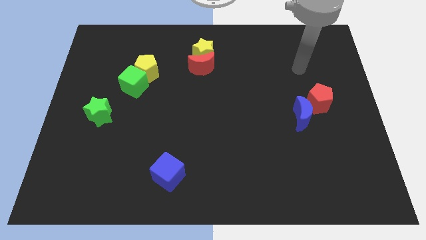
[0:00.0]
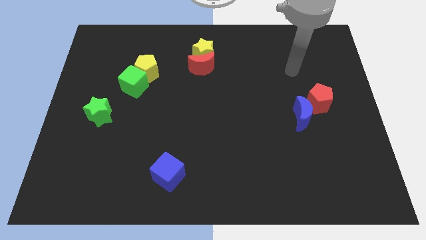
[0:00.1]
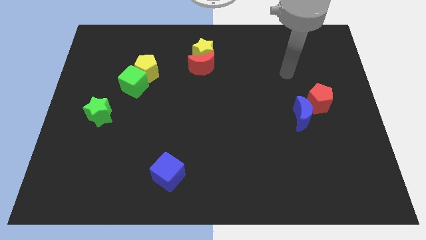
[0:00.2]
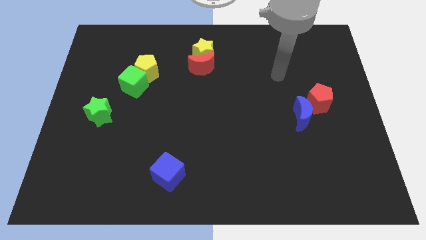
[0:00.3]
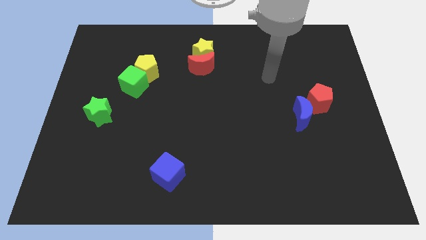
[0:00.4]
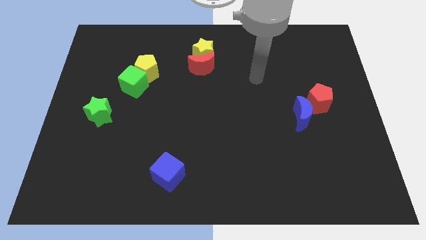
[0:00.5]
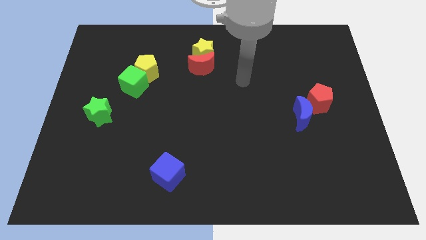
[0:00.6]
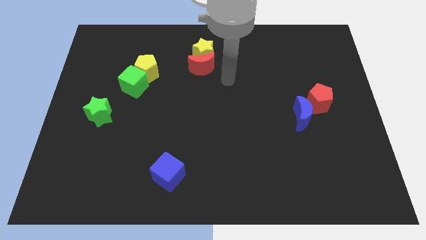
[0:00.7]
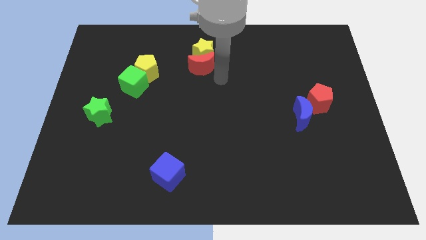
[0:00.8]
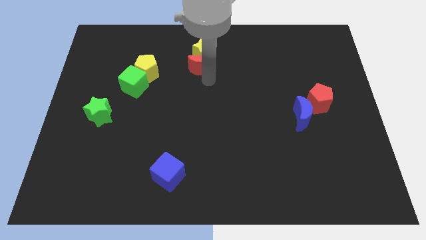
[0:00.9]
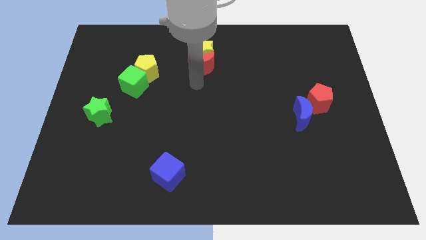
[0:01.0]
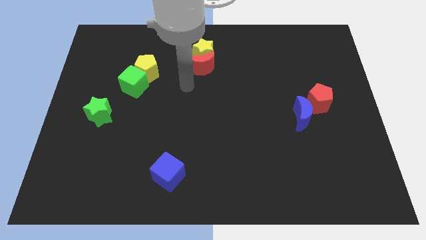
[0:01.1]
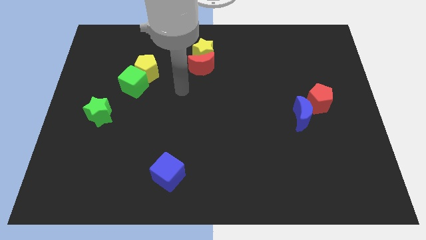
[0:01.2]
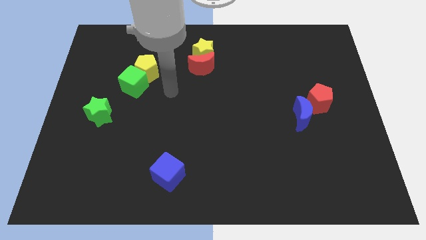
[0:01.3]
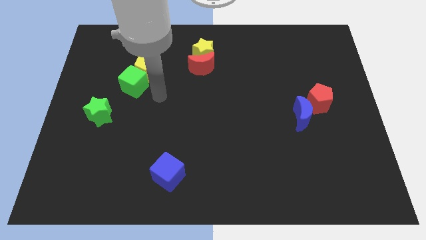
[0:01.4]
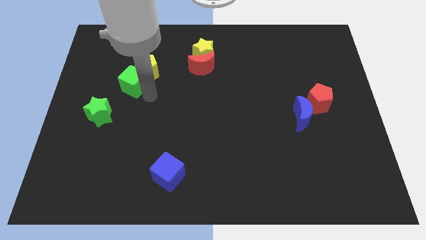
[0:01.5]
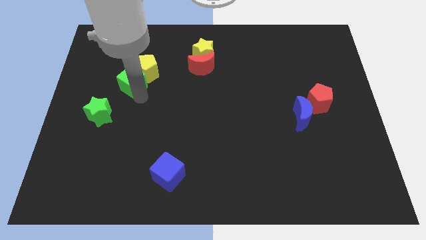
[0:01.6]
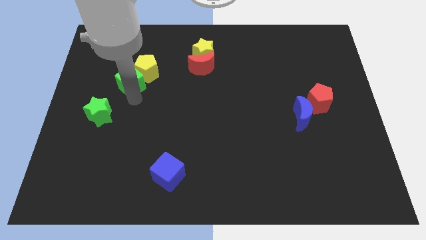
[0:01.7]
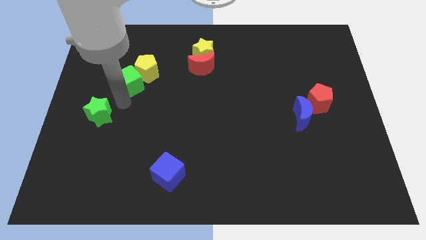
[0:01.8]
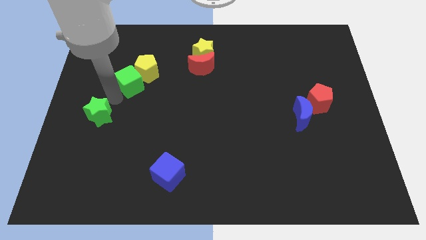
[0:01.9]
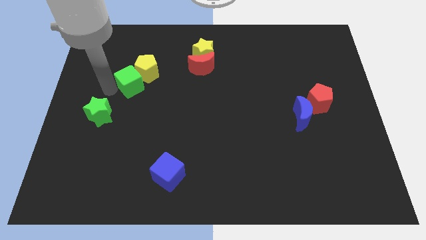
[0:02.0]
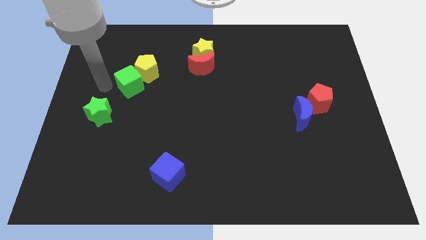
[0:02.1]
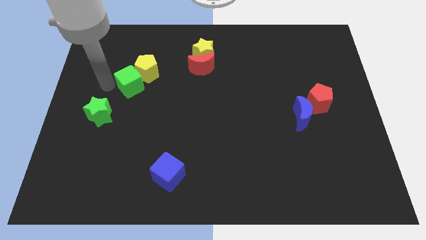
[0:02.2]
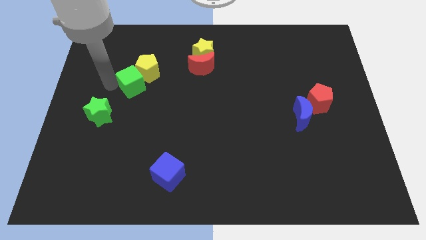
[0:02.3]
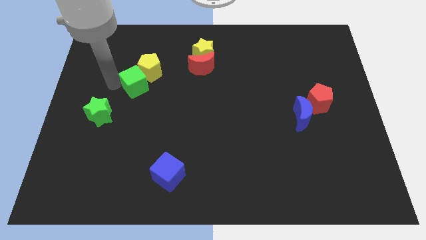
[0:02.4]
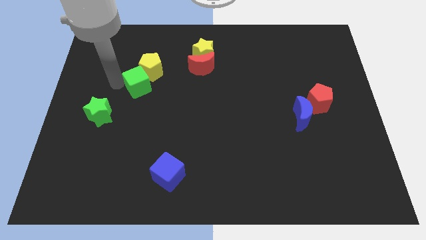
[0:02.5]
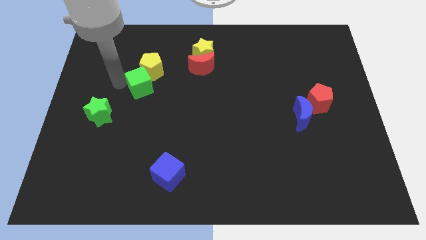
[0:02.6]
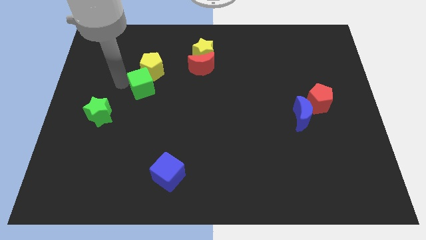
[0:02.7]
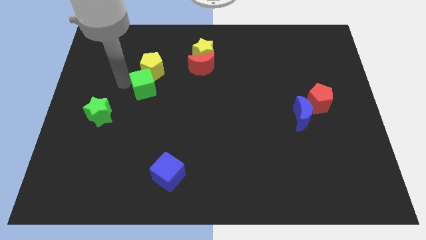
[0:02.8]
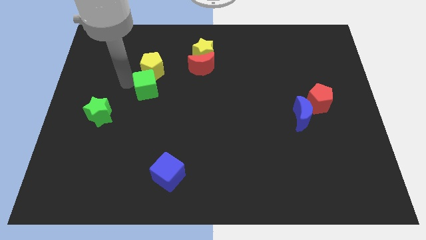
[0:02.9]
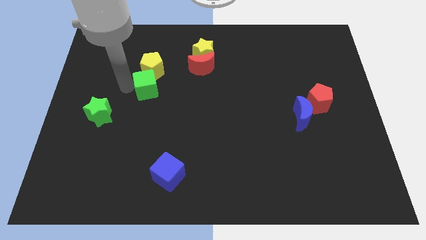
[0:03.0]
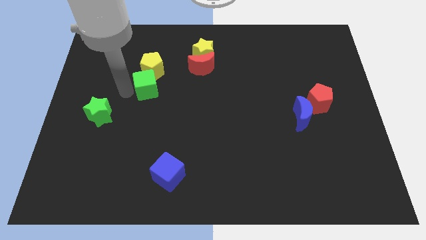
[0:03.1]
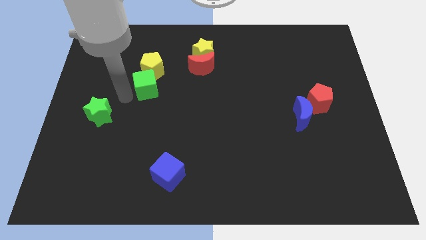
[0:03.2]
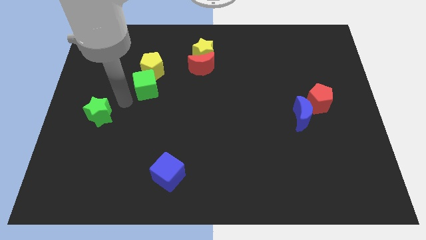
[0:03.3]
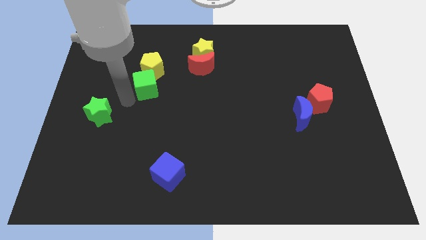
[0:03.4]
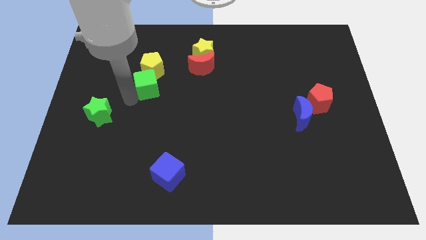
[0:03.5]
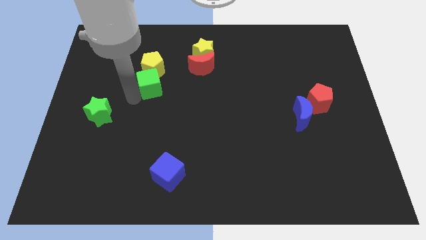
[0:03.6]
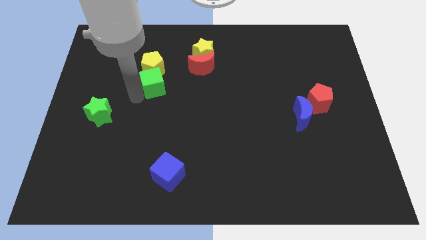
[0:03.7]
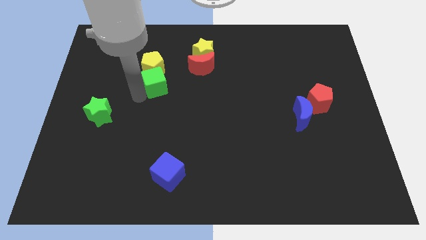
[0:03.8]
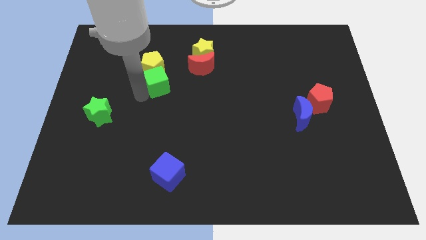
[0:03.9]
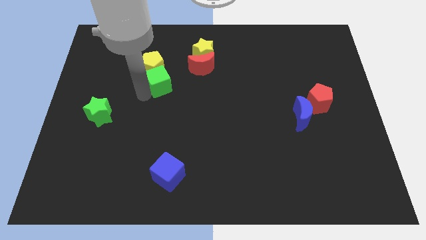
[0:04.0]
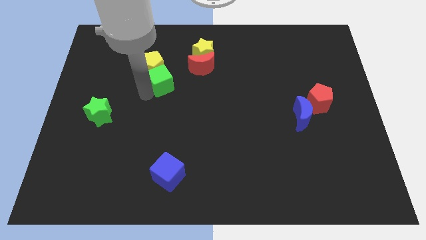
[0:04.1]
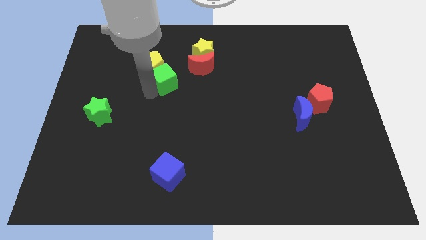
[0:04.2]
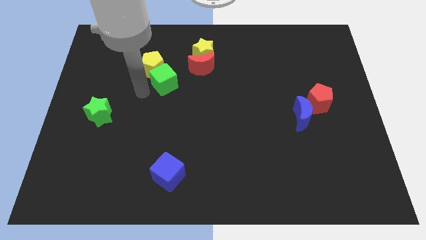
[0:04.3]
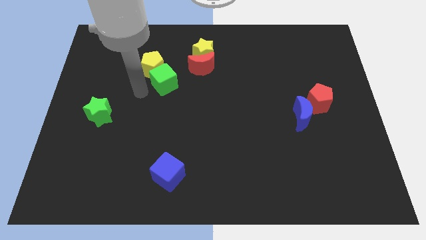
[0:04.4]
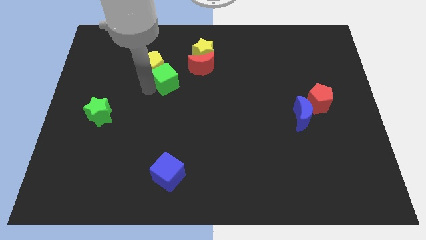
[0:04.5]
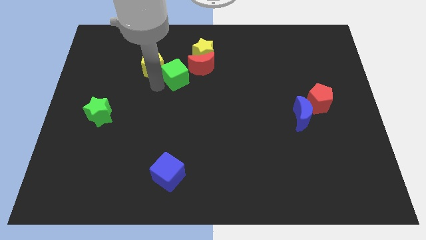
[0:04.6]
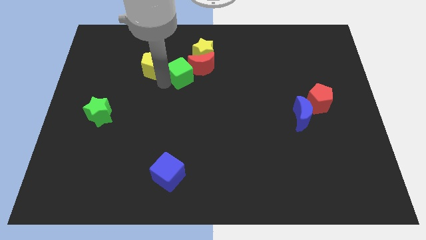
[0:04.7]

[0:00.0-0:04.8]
push the green cube to the red moon

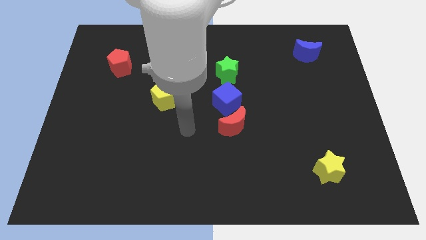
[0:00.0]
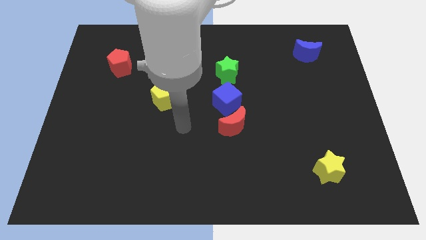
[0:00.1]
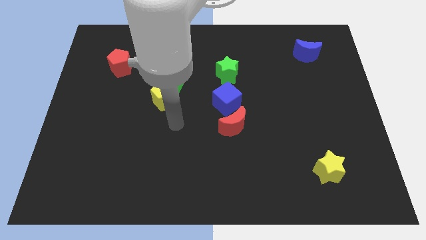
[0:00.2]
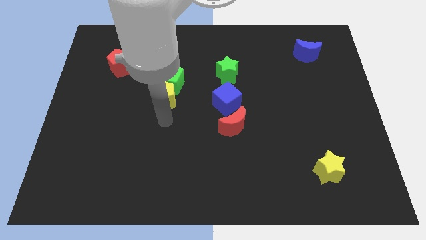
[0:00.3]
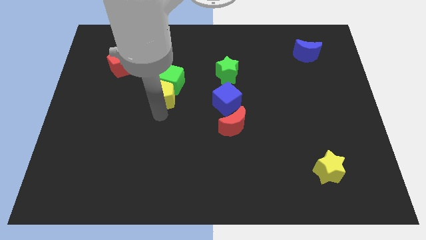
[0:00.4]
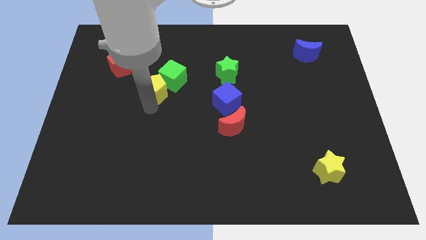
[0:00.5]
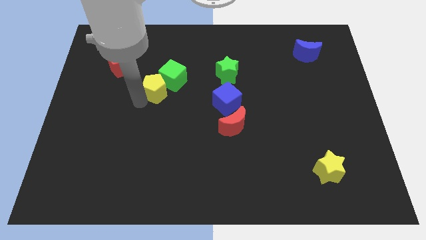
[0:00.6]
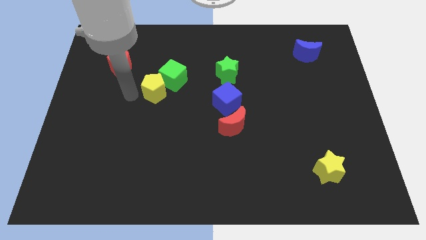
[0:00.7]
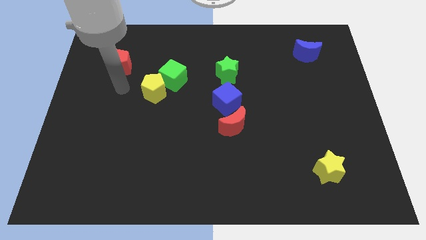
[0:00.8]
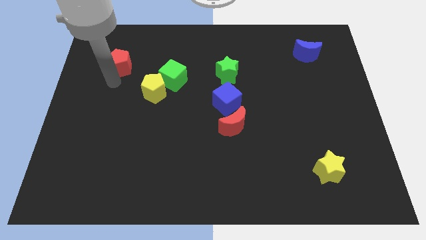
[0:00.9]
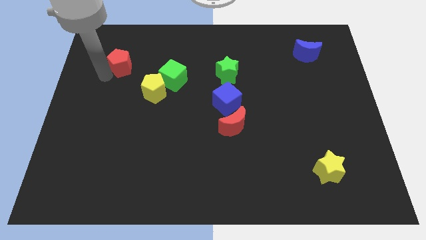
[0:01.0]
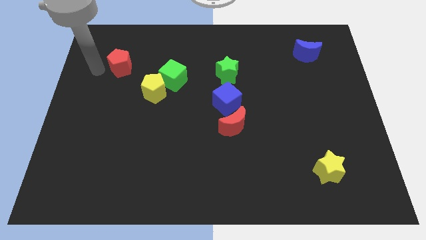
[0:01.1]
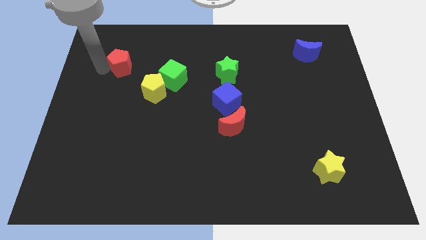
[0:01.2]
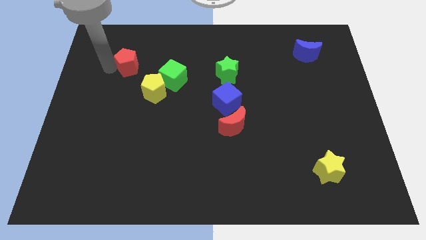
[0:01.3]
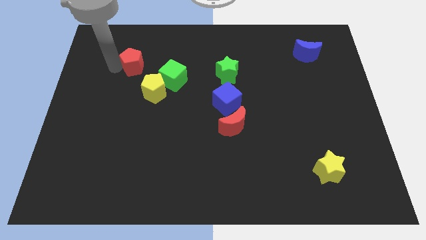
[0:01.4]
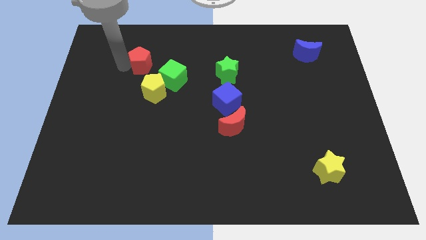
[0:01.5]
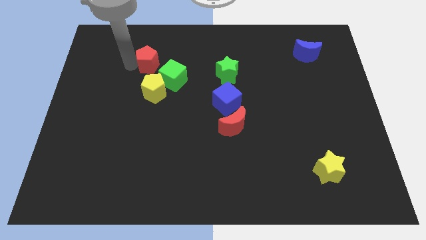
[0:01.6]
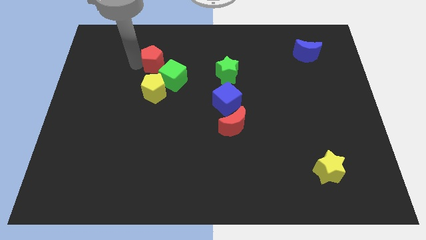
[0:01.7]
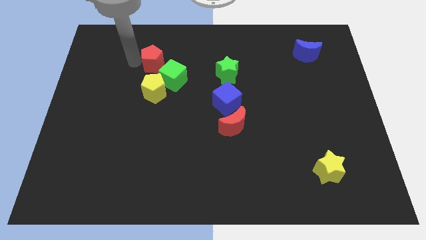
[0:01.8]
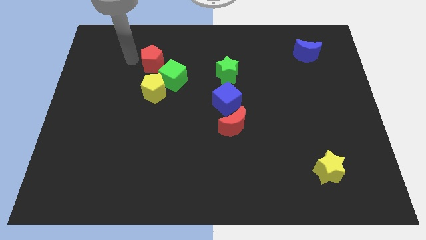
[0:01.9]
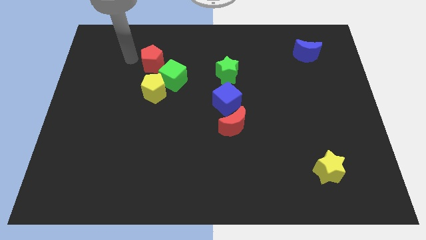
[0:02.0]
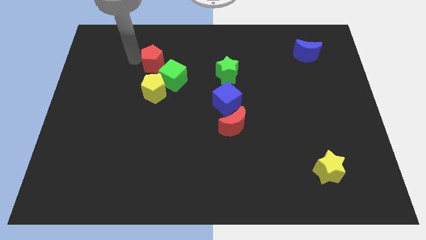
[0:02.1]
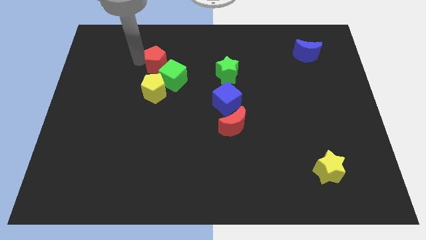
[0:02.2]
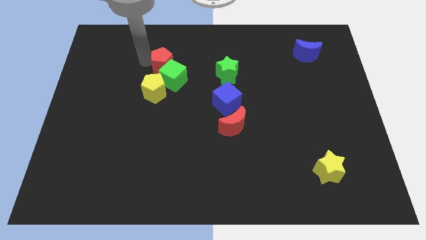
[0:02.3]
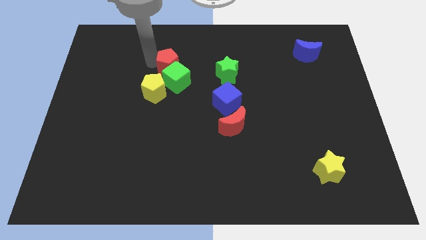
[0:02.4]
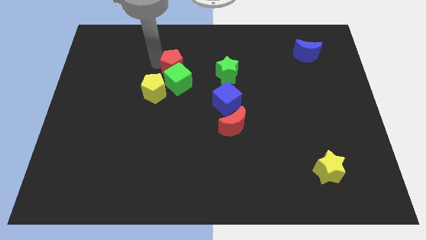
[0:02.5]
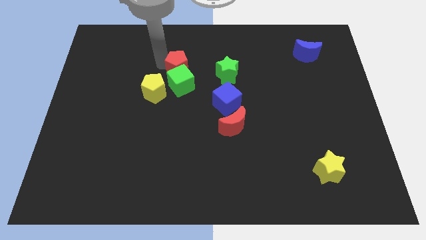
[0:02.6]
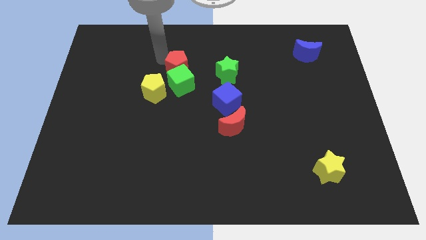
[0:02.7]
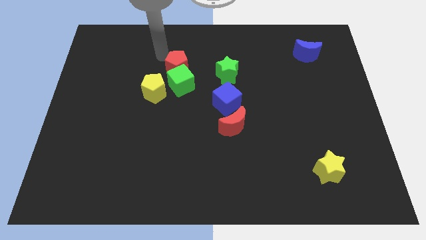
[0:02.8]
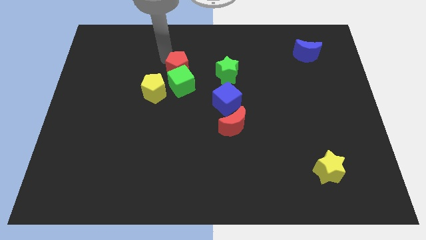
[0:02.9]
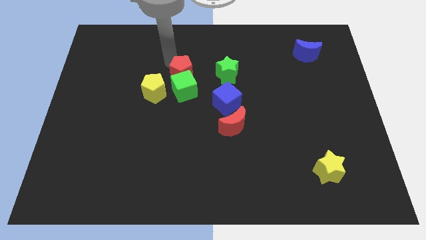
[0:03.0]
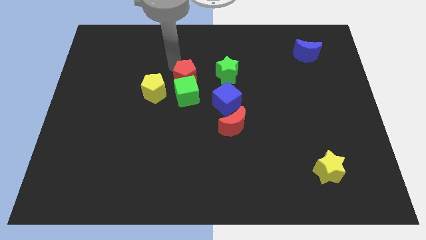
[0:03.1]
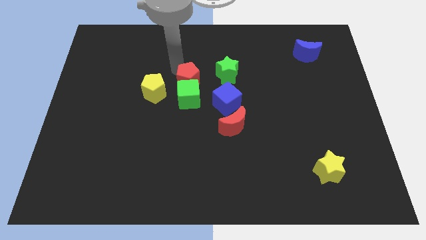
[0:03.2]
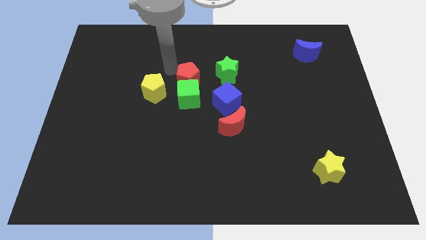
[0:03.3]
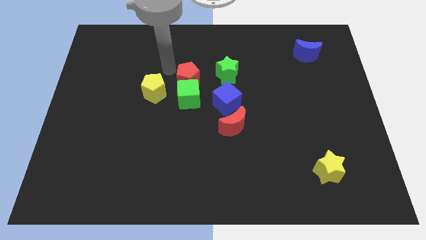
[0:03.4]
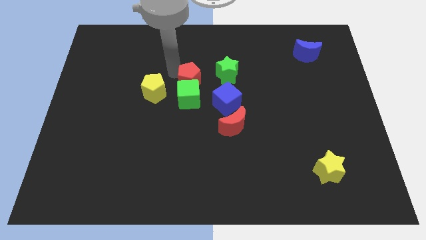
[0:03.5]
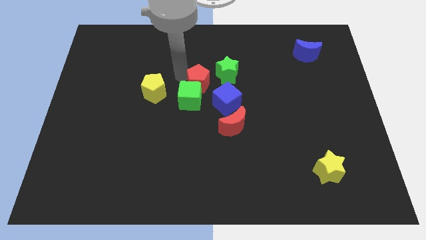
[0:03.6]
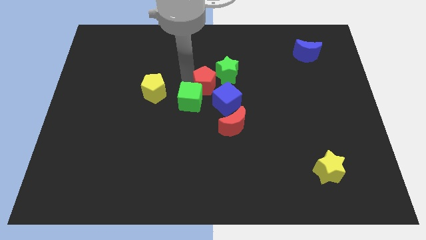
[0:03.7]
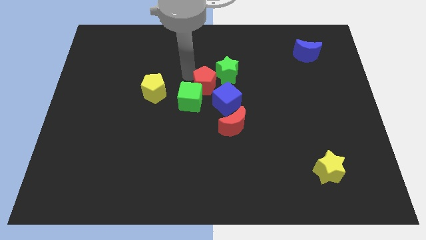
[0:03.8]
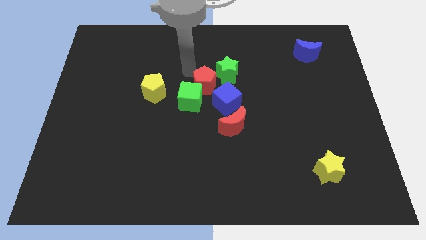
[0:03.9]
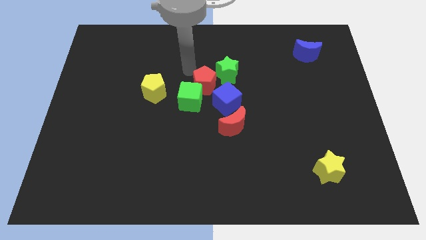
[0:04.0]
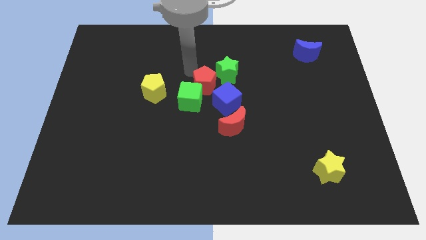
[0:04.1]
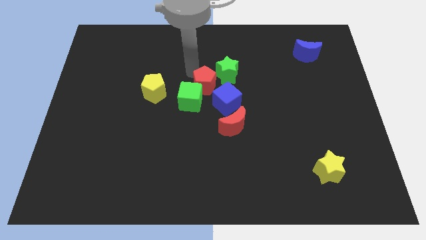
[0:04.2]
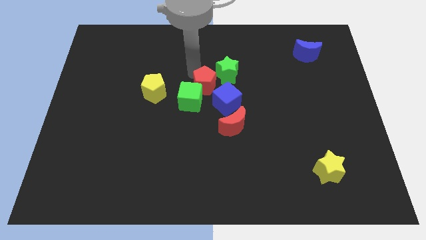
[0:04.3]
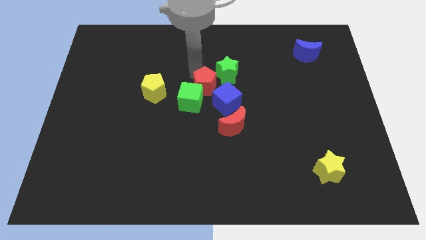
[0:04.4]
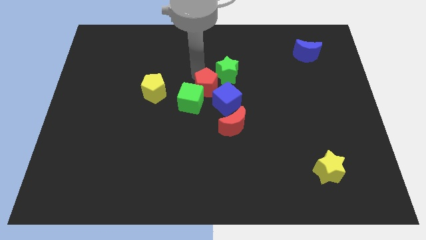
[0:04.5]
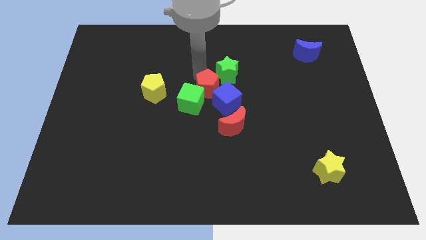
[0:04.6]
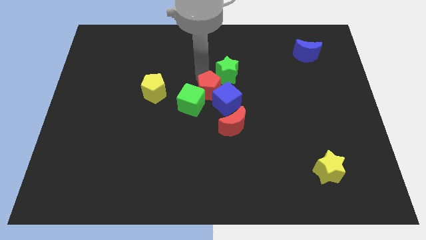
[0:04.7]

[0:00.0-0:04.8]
put the red pentagon close to the blue cube
